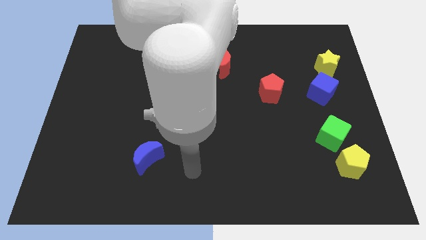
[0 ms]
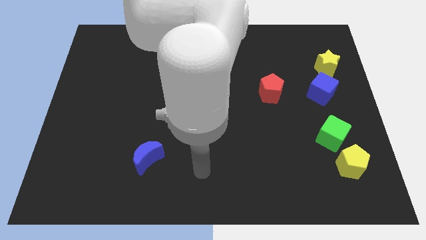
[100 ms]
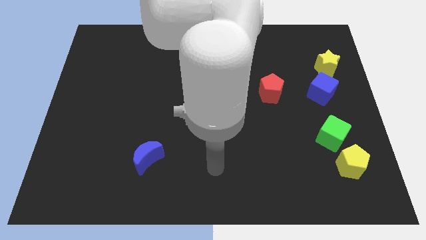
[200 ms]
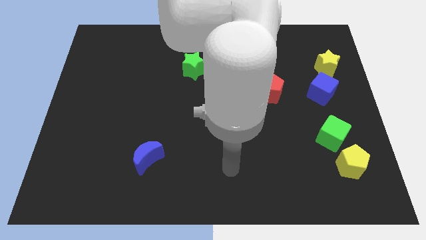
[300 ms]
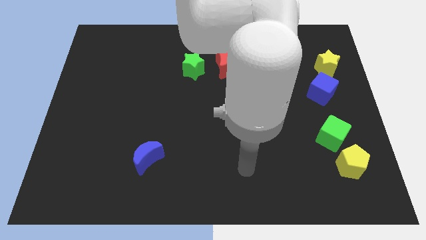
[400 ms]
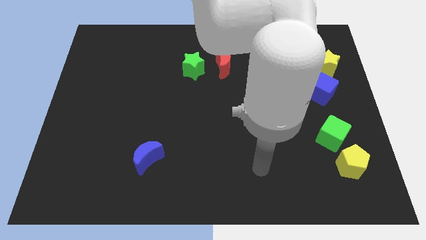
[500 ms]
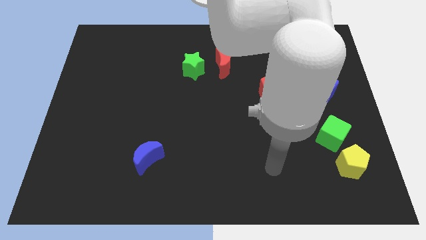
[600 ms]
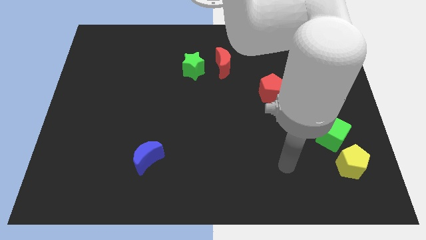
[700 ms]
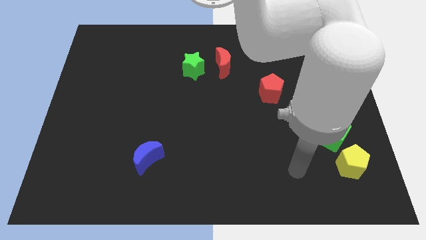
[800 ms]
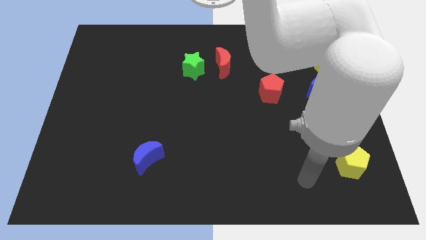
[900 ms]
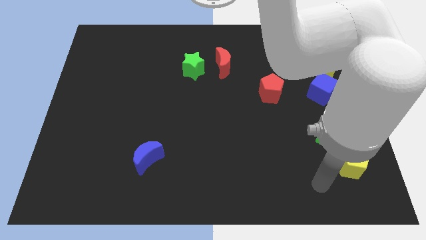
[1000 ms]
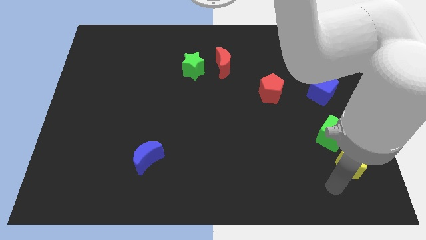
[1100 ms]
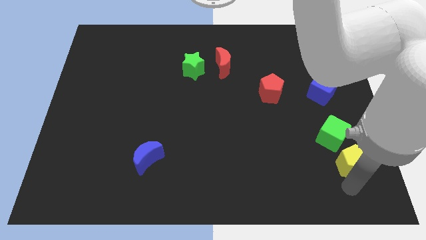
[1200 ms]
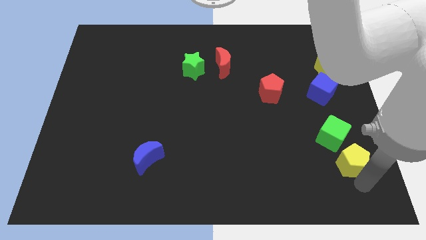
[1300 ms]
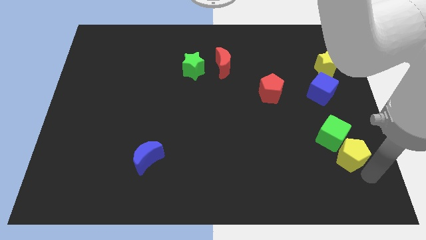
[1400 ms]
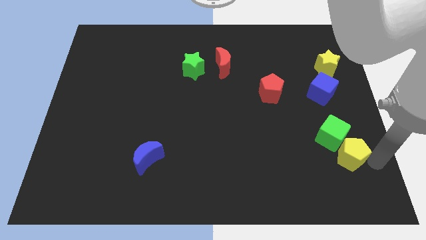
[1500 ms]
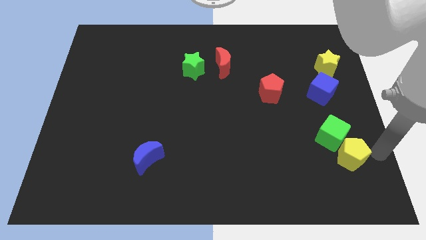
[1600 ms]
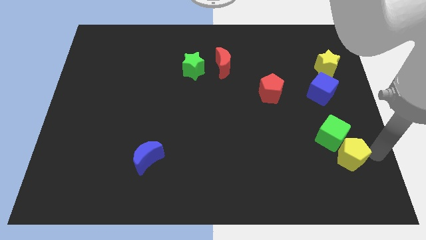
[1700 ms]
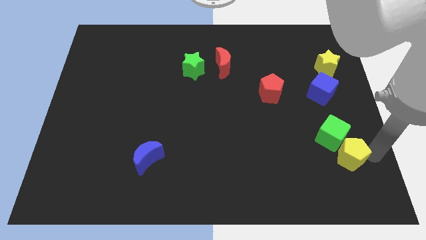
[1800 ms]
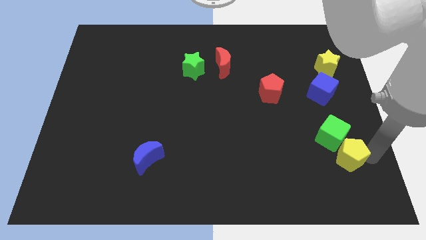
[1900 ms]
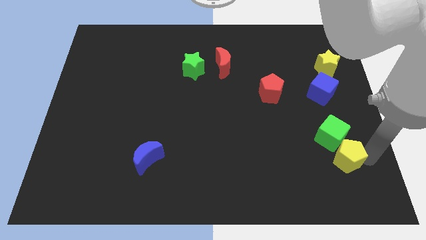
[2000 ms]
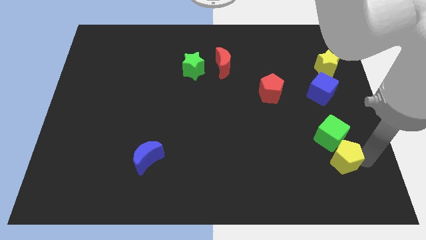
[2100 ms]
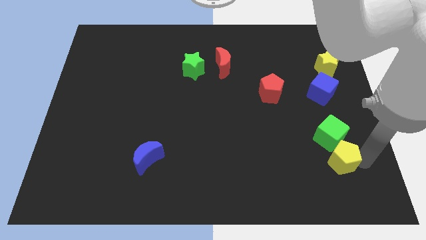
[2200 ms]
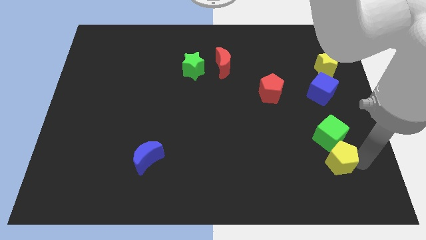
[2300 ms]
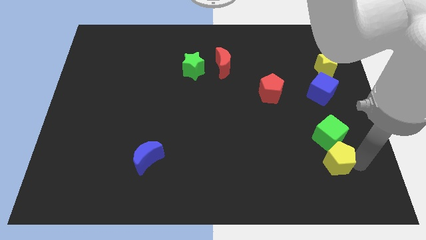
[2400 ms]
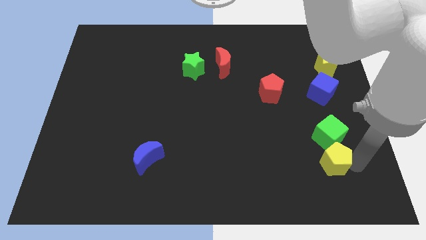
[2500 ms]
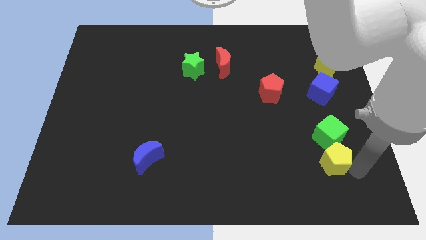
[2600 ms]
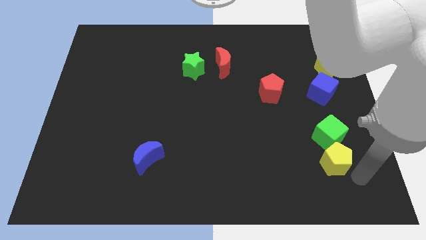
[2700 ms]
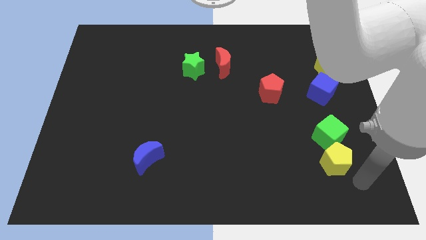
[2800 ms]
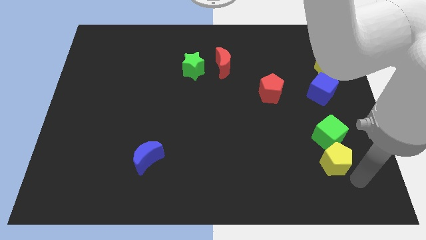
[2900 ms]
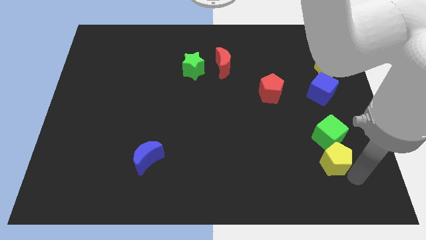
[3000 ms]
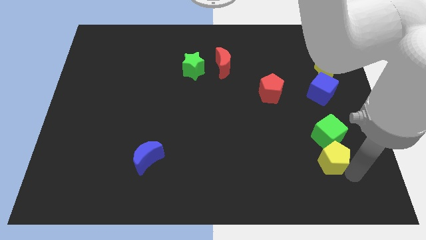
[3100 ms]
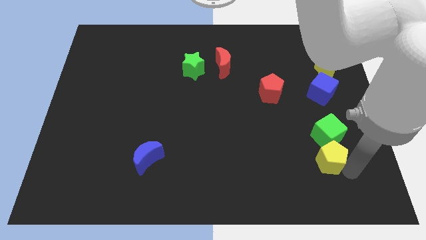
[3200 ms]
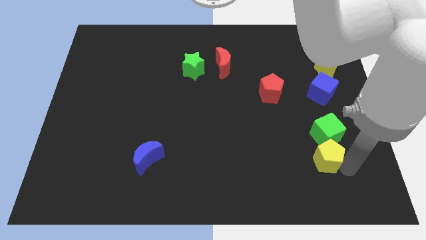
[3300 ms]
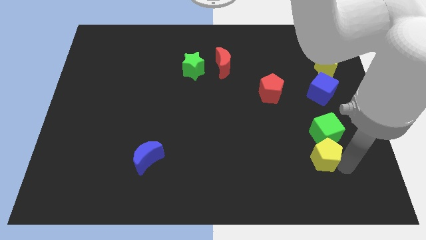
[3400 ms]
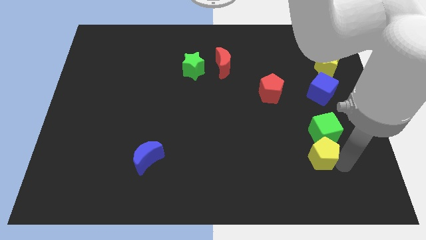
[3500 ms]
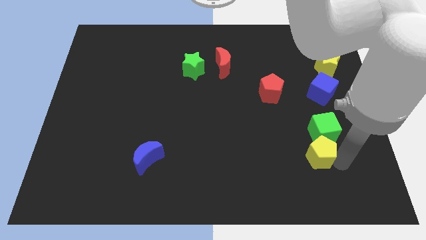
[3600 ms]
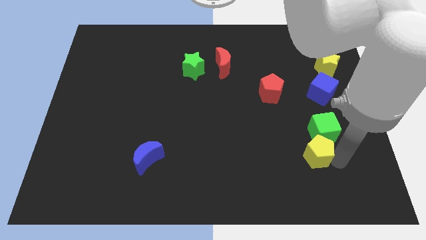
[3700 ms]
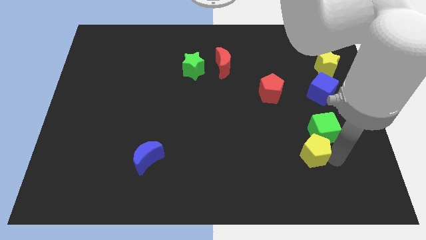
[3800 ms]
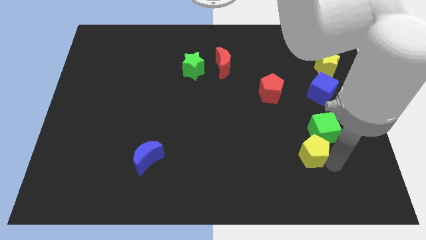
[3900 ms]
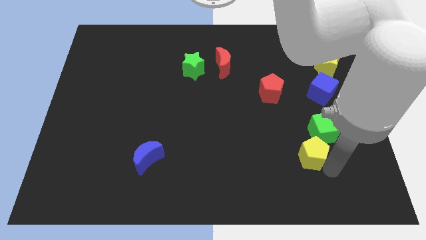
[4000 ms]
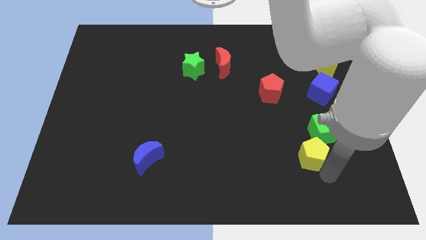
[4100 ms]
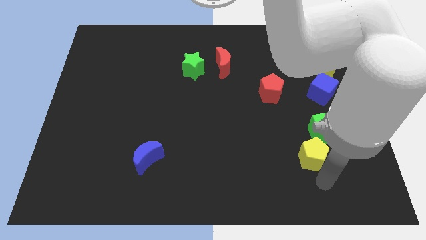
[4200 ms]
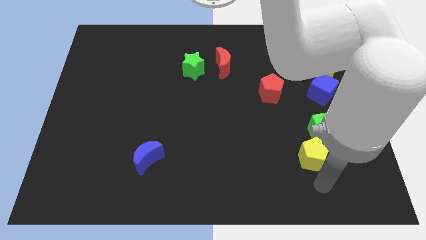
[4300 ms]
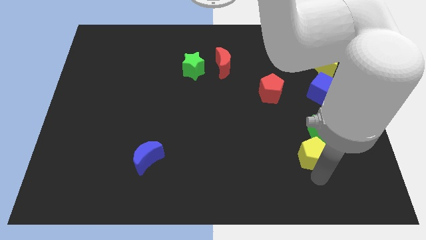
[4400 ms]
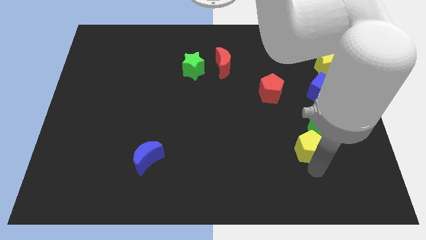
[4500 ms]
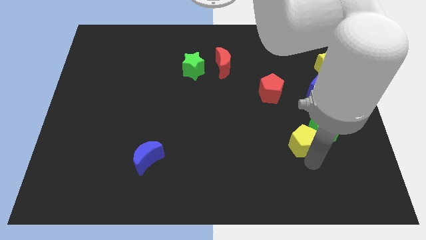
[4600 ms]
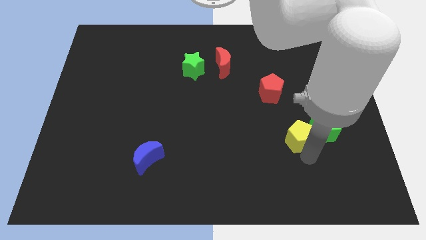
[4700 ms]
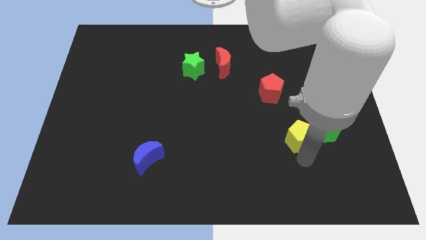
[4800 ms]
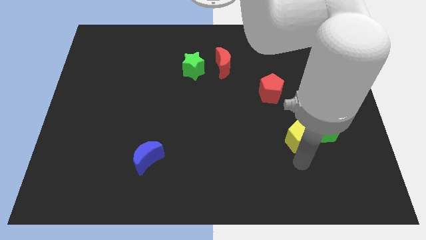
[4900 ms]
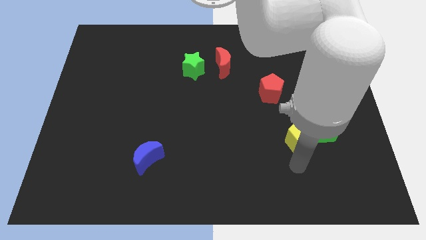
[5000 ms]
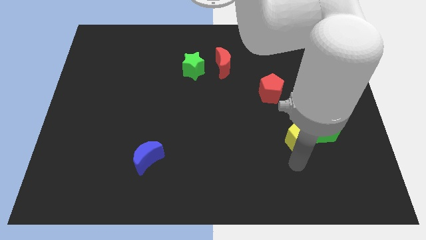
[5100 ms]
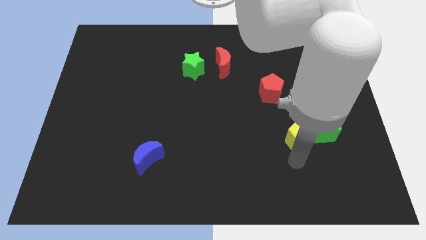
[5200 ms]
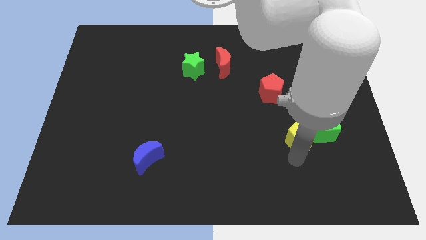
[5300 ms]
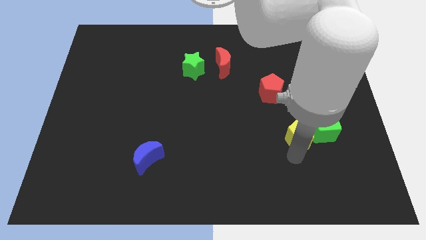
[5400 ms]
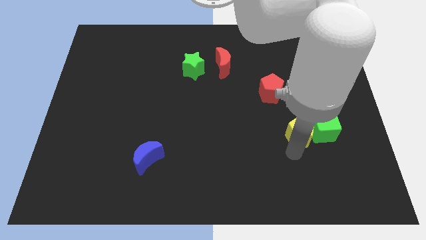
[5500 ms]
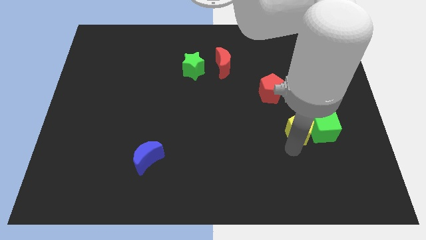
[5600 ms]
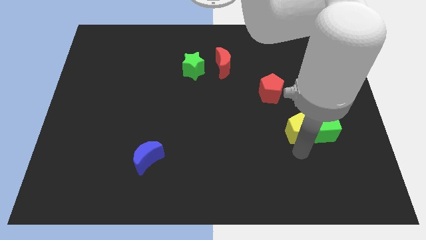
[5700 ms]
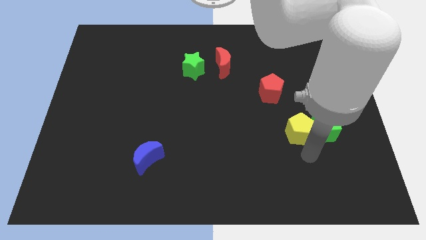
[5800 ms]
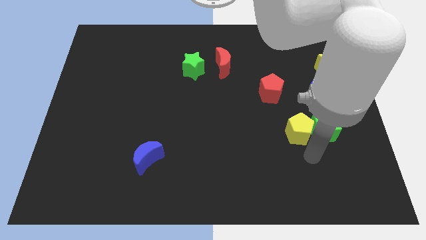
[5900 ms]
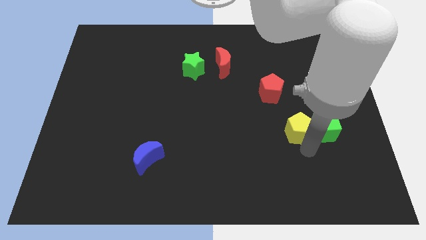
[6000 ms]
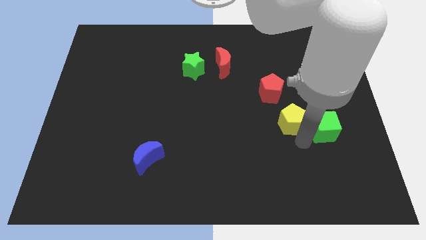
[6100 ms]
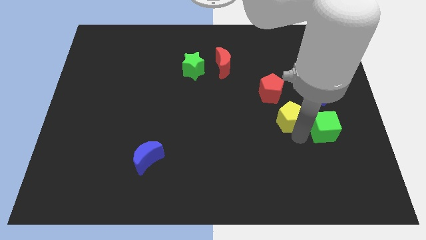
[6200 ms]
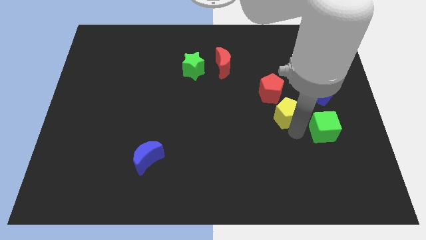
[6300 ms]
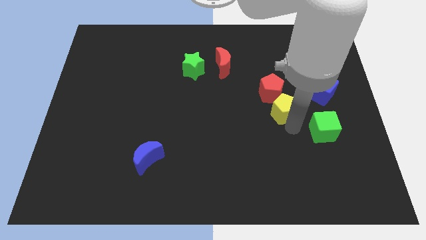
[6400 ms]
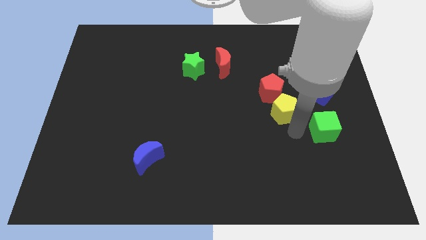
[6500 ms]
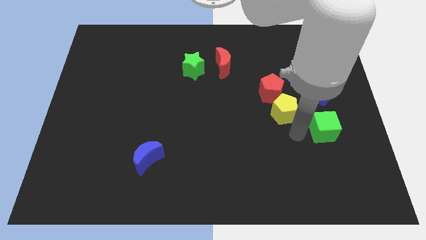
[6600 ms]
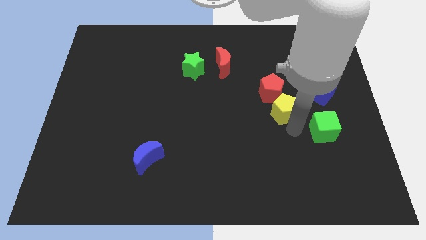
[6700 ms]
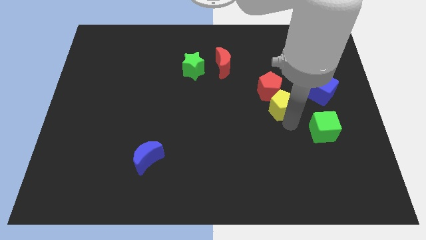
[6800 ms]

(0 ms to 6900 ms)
move the yellow pentagon close to the red pentagon
